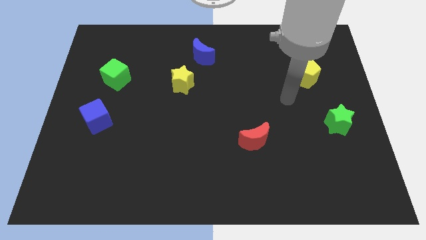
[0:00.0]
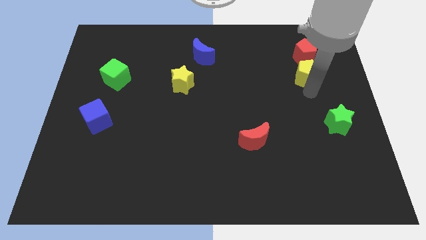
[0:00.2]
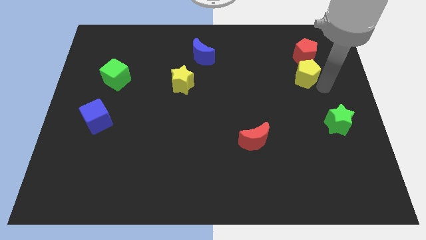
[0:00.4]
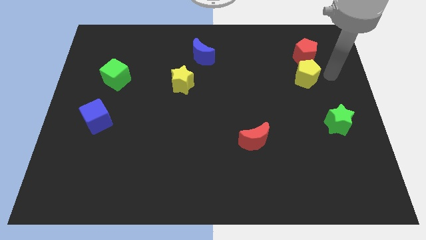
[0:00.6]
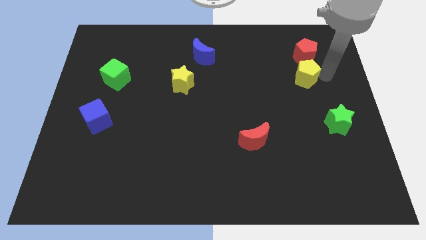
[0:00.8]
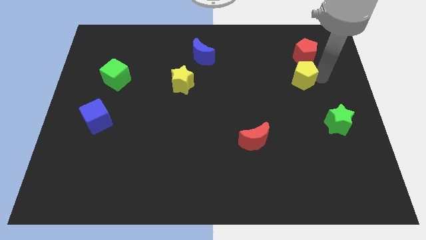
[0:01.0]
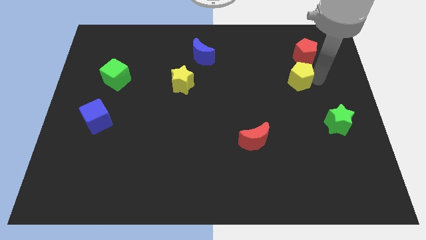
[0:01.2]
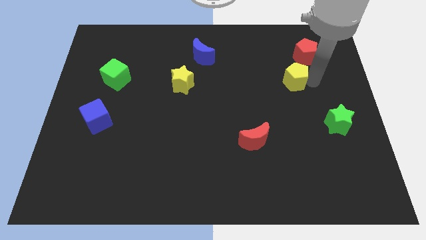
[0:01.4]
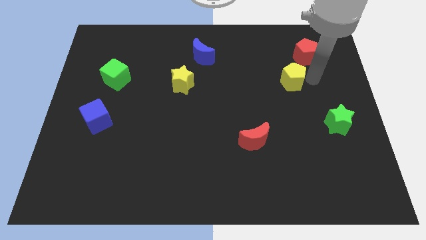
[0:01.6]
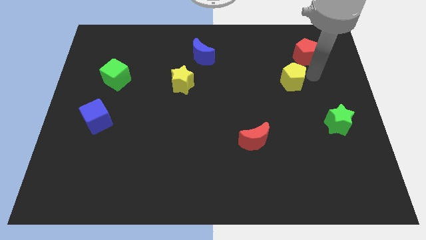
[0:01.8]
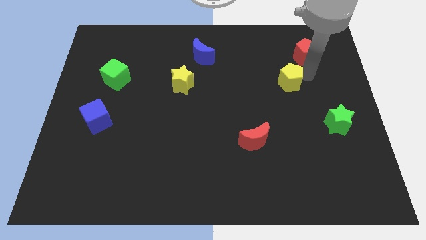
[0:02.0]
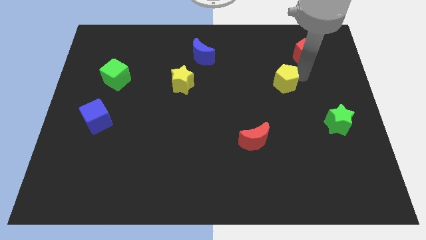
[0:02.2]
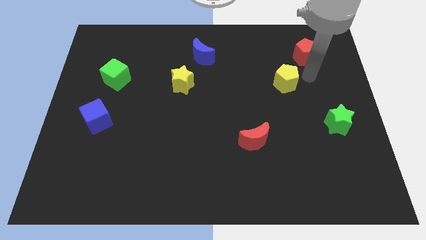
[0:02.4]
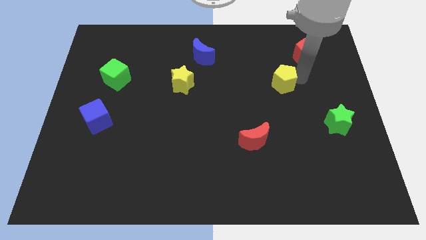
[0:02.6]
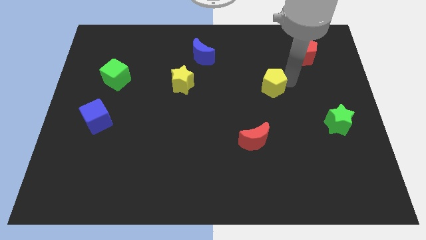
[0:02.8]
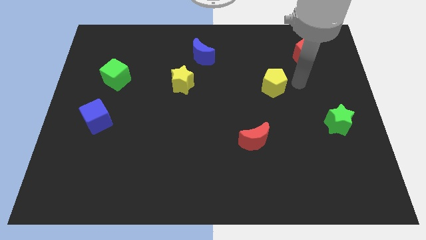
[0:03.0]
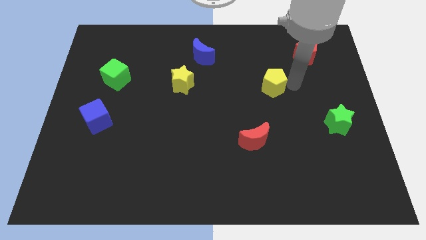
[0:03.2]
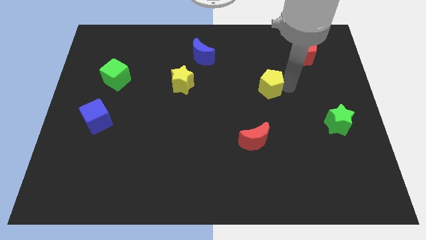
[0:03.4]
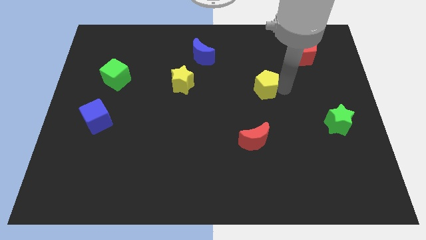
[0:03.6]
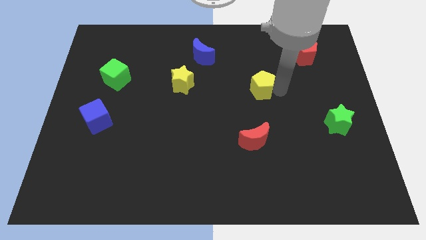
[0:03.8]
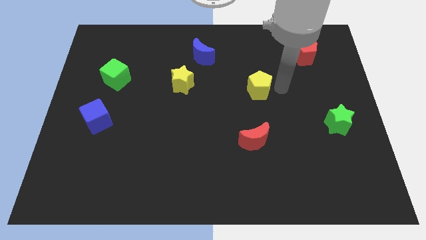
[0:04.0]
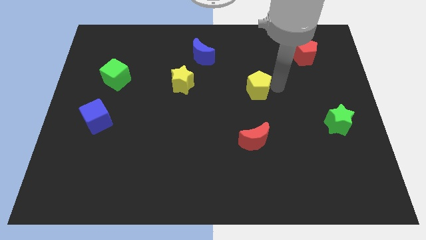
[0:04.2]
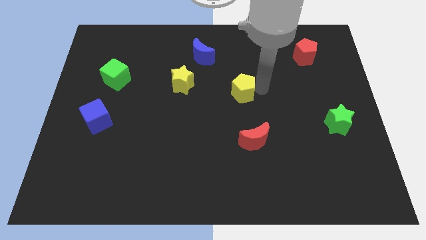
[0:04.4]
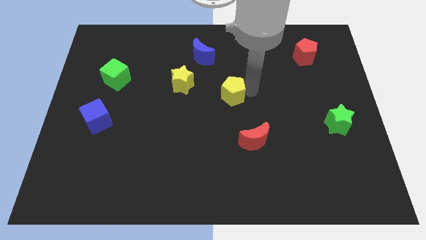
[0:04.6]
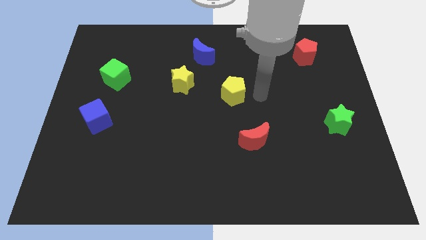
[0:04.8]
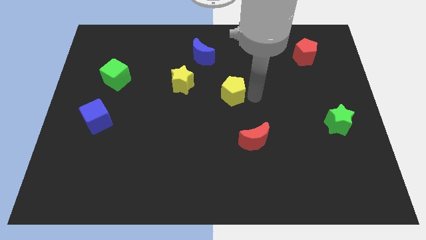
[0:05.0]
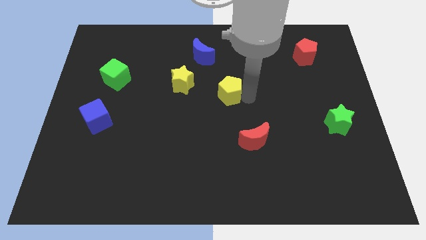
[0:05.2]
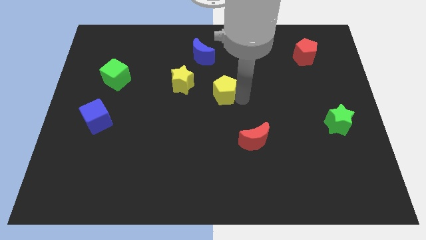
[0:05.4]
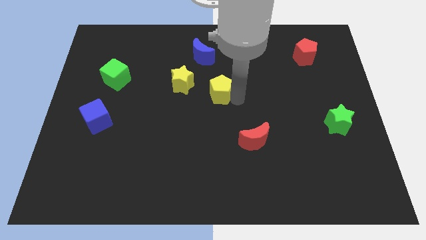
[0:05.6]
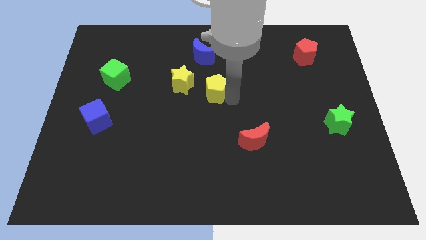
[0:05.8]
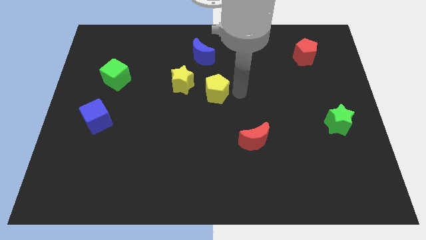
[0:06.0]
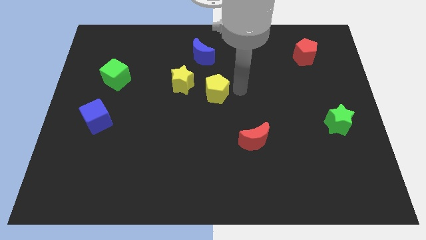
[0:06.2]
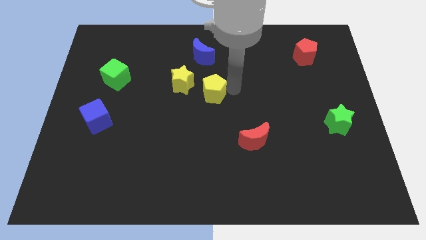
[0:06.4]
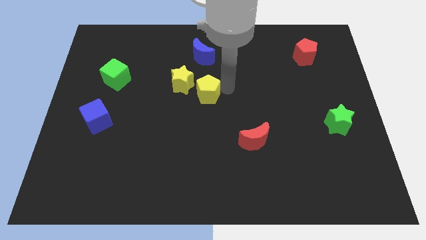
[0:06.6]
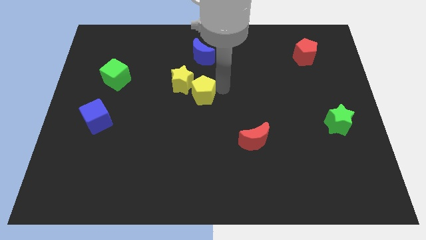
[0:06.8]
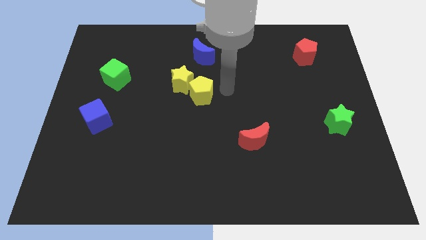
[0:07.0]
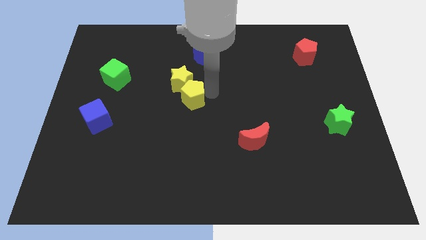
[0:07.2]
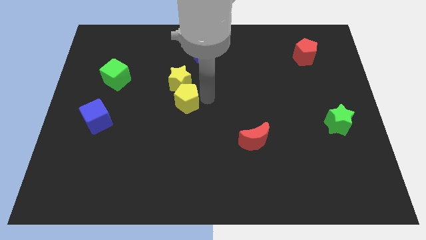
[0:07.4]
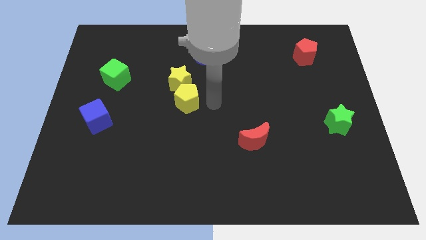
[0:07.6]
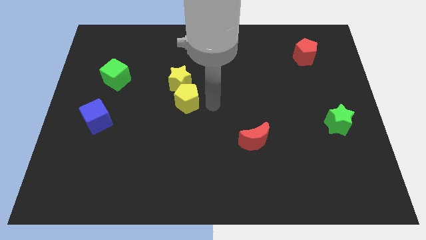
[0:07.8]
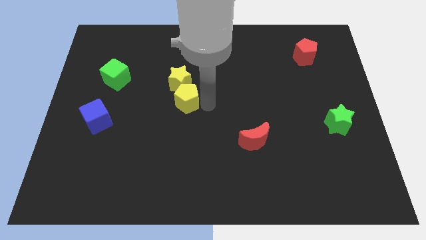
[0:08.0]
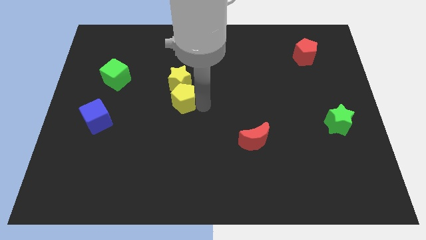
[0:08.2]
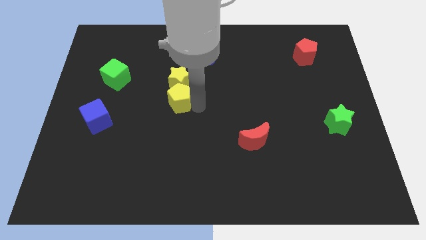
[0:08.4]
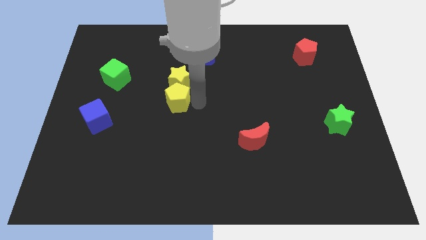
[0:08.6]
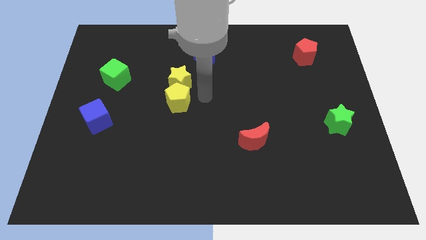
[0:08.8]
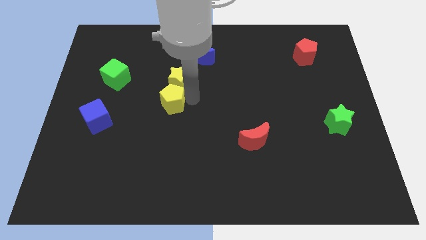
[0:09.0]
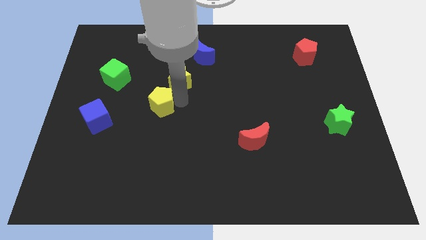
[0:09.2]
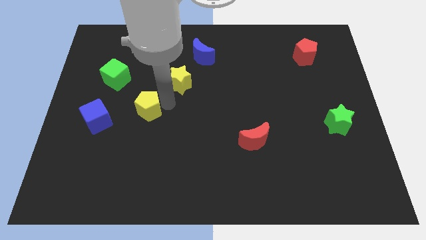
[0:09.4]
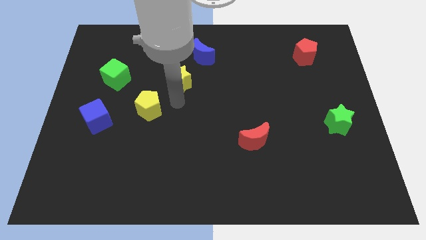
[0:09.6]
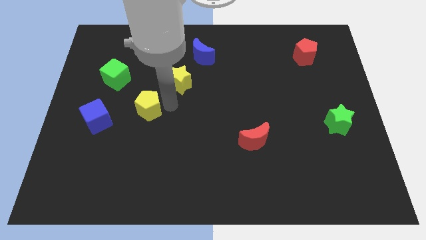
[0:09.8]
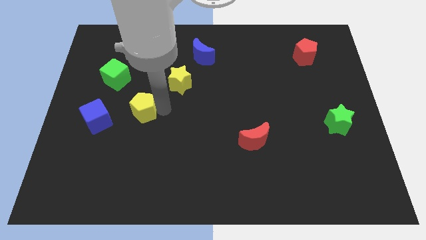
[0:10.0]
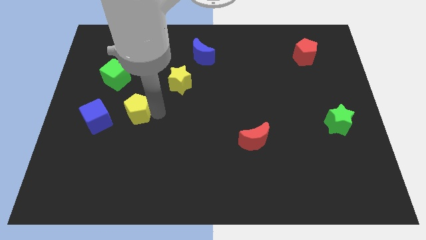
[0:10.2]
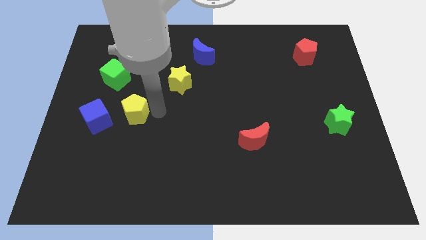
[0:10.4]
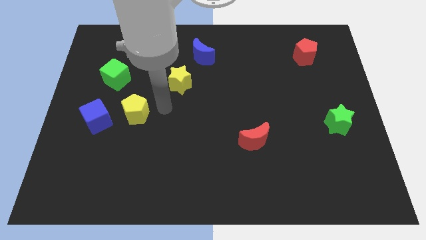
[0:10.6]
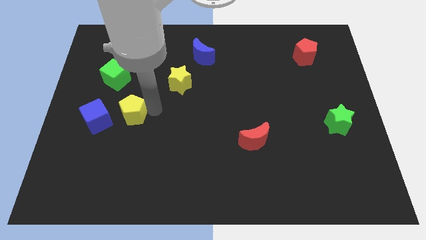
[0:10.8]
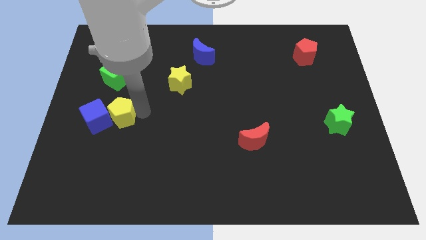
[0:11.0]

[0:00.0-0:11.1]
slide the yellow pentagon to the blue cube

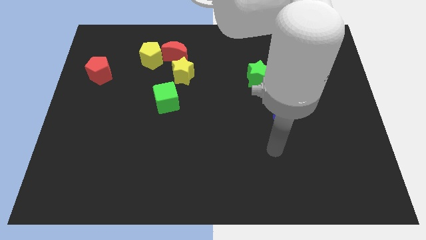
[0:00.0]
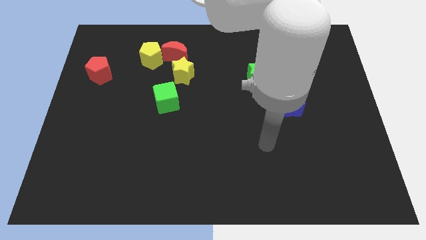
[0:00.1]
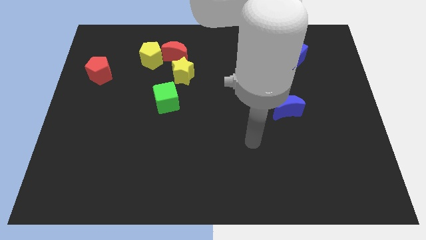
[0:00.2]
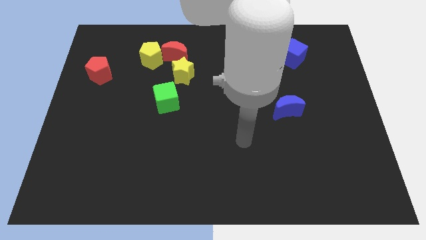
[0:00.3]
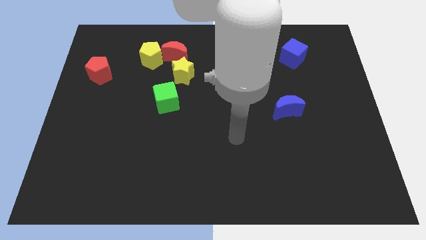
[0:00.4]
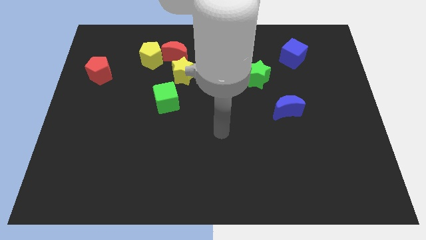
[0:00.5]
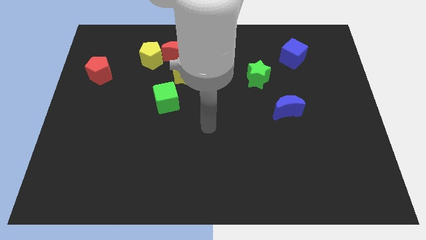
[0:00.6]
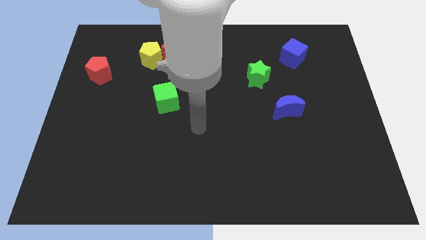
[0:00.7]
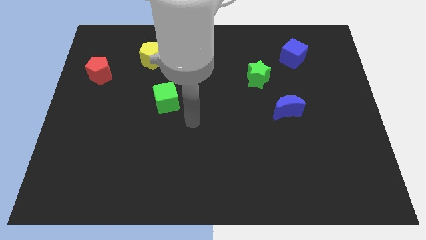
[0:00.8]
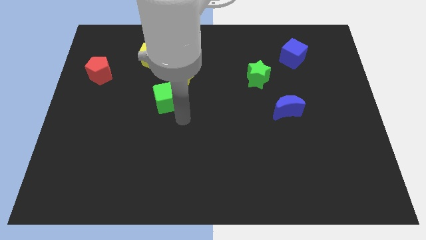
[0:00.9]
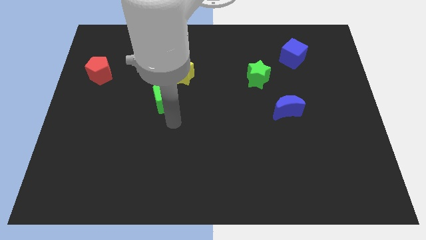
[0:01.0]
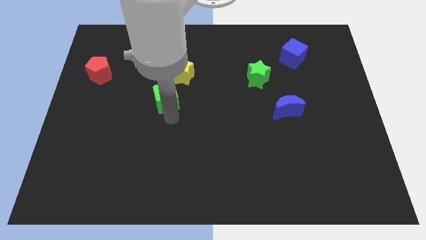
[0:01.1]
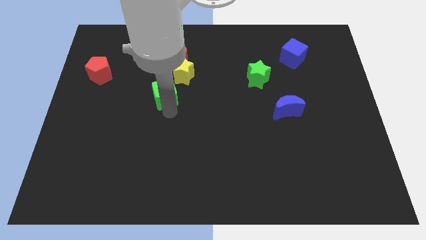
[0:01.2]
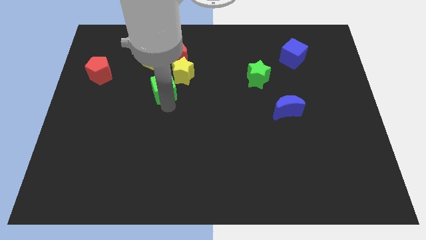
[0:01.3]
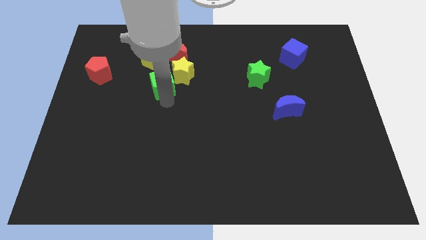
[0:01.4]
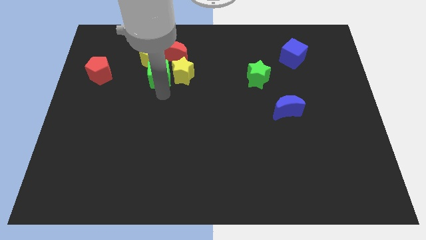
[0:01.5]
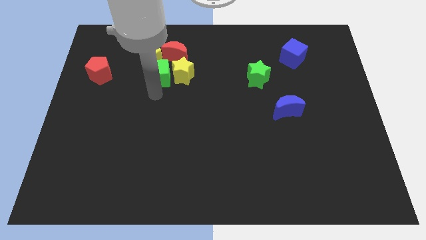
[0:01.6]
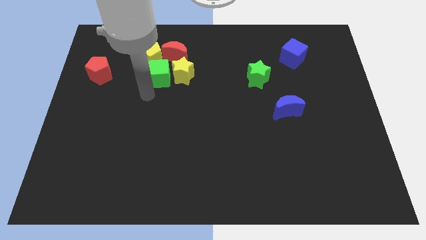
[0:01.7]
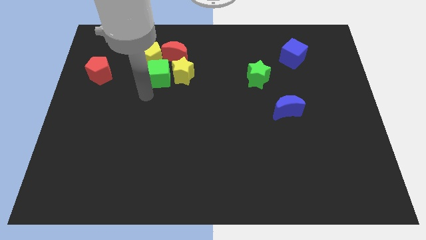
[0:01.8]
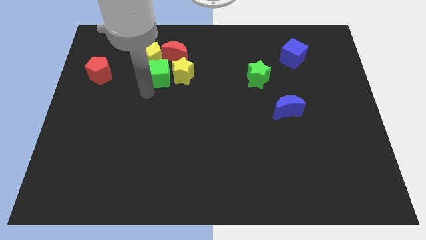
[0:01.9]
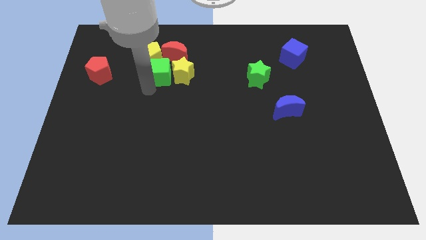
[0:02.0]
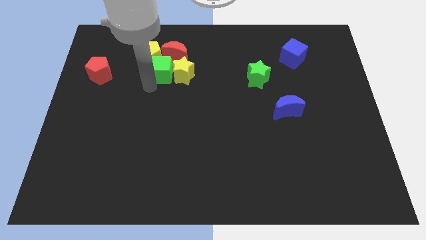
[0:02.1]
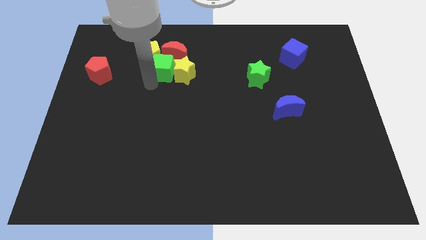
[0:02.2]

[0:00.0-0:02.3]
put the green cube close to the red moon
